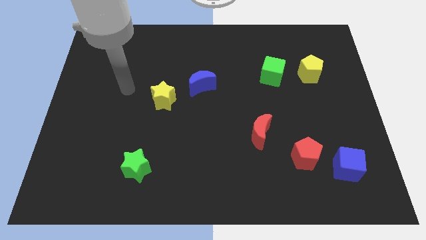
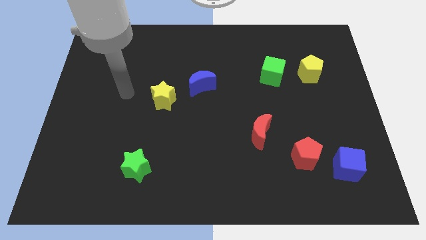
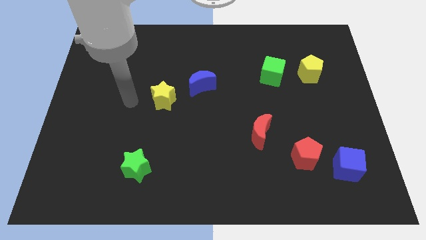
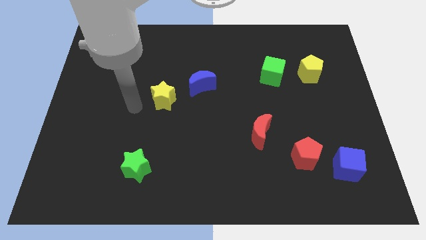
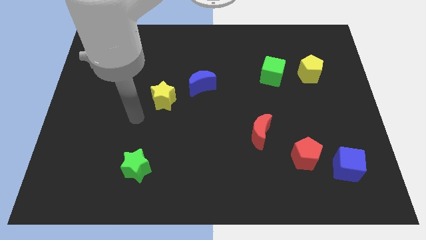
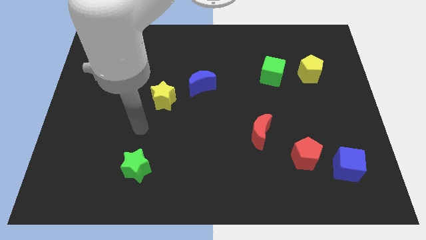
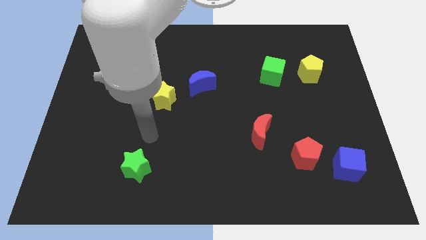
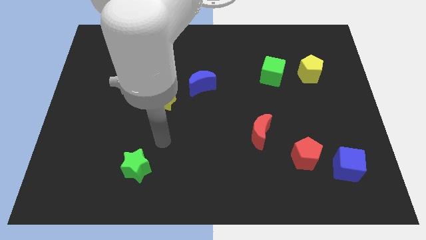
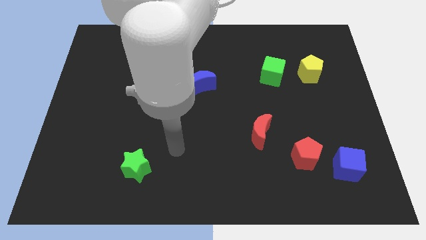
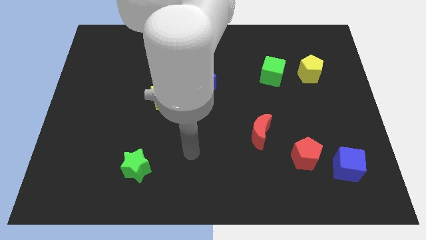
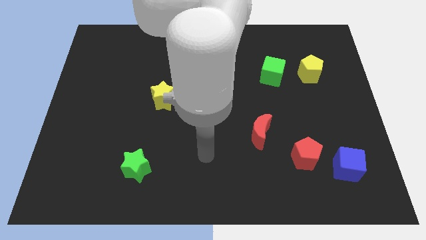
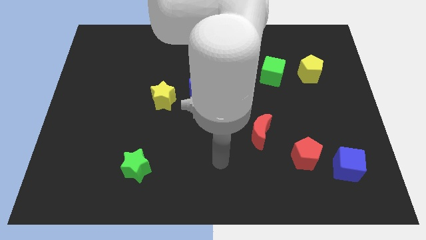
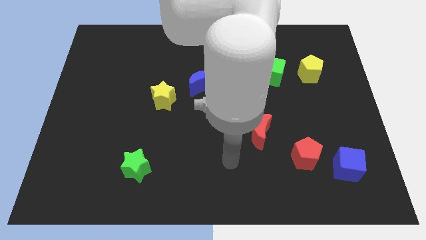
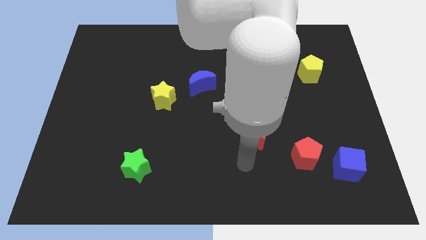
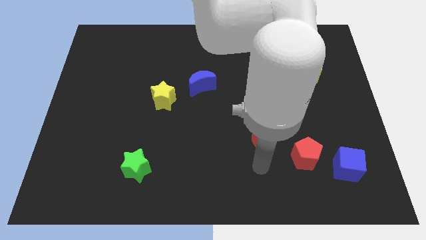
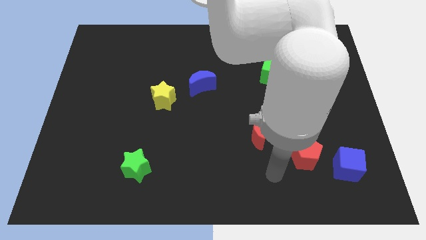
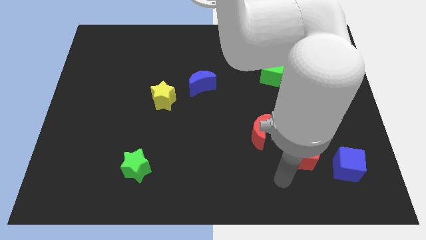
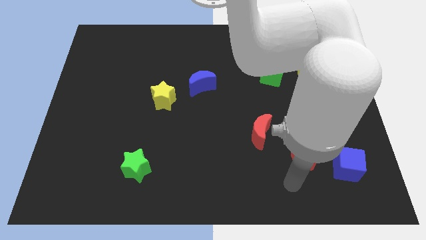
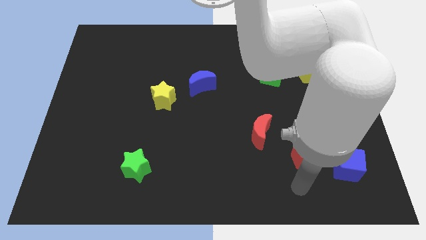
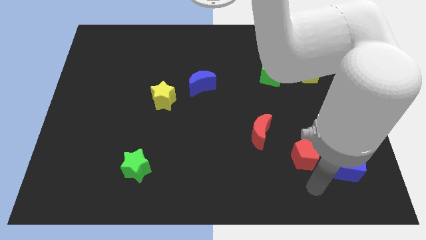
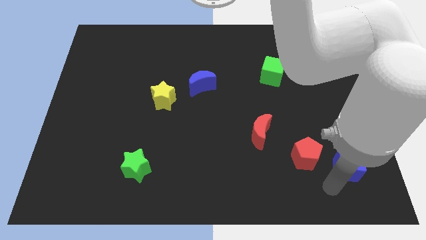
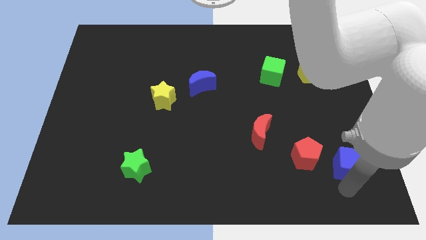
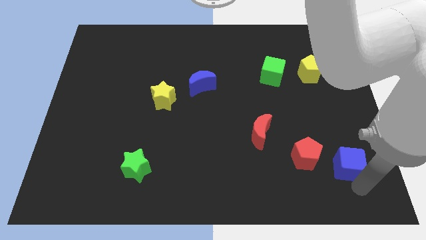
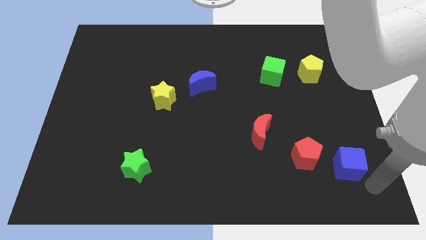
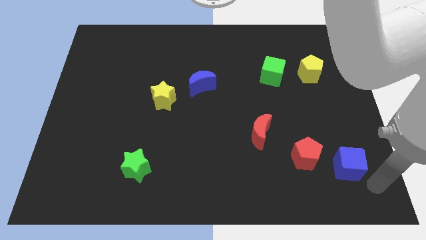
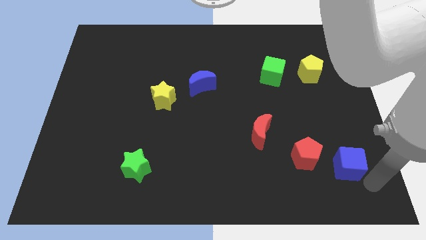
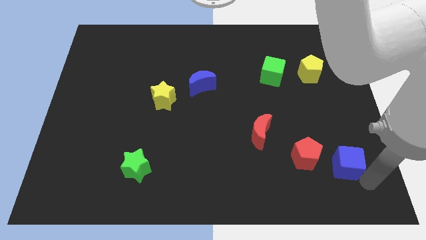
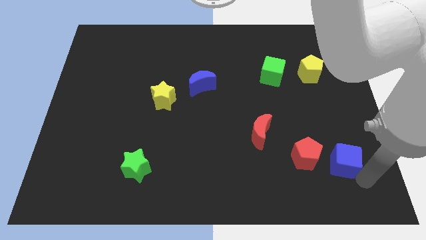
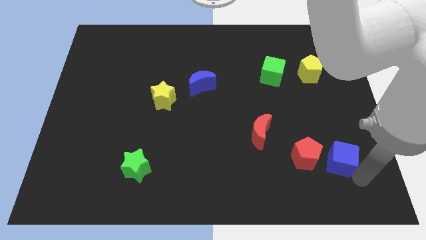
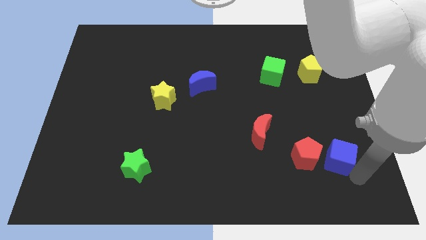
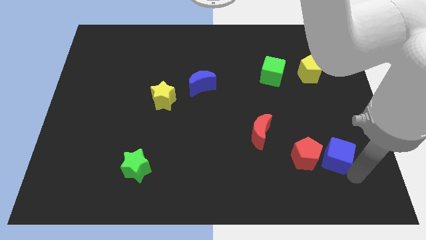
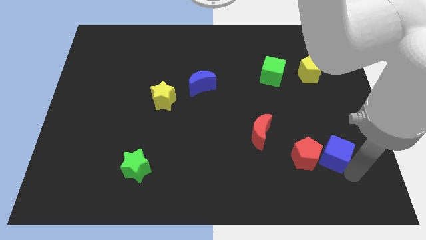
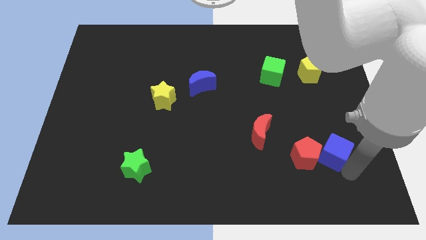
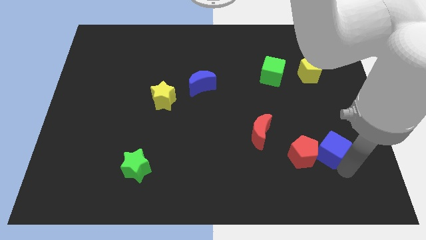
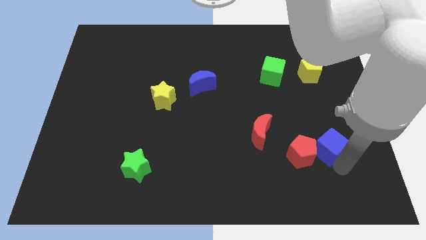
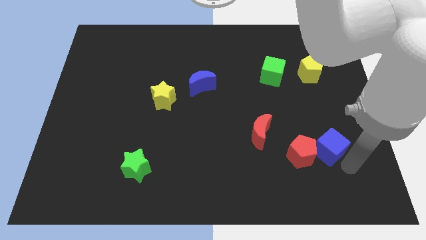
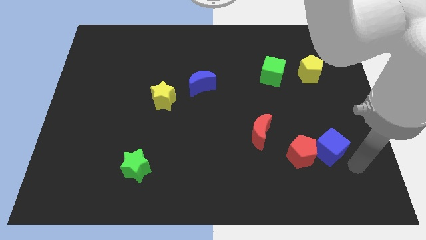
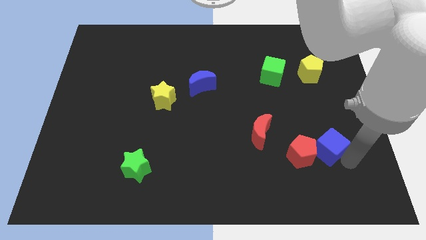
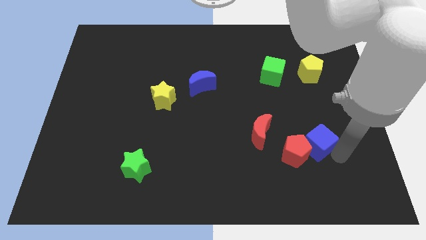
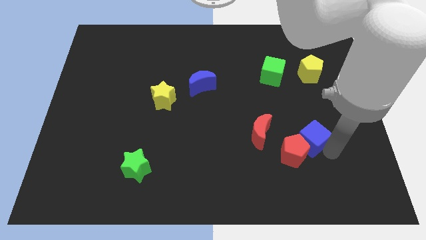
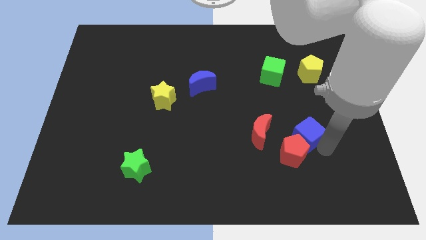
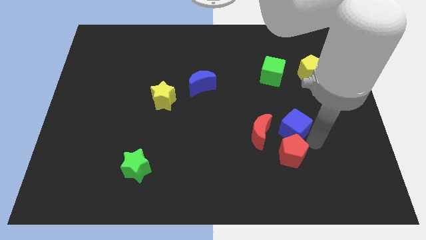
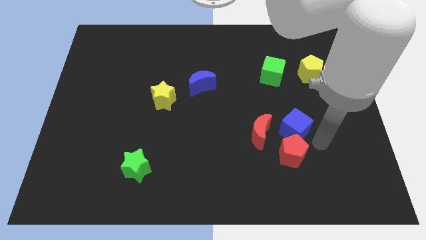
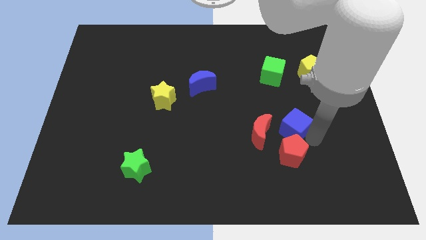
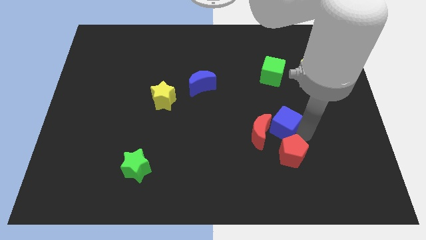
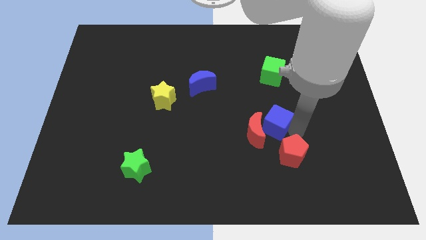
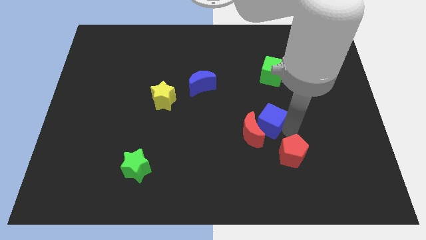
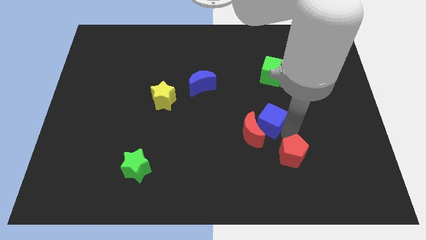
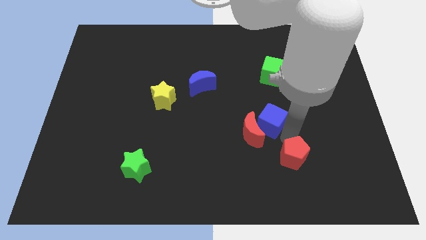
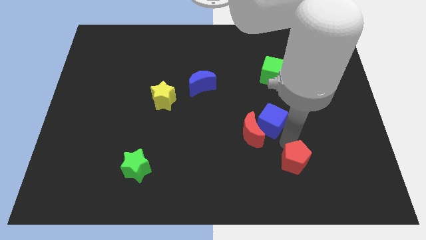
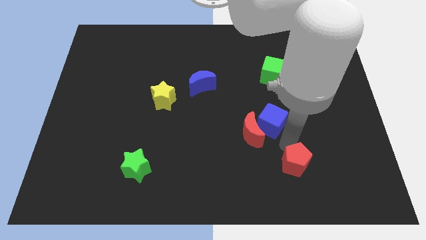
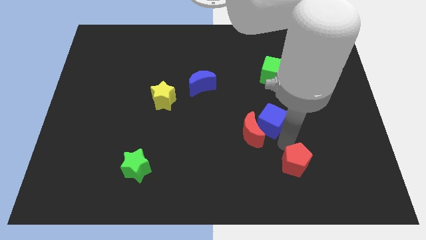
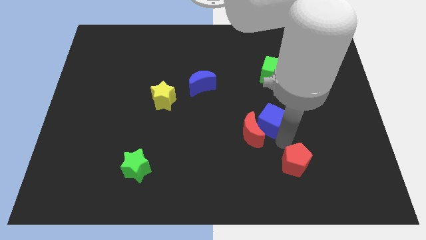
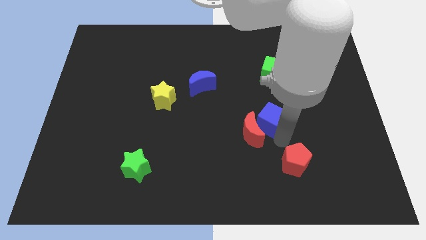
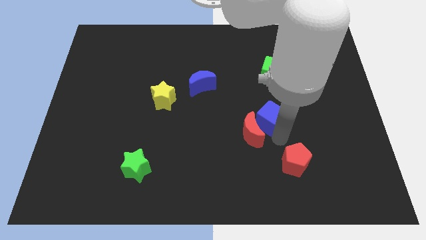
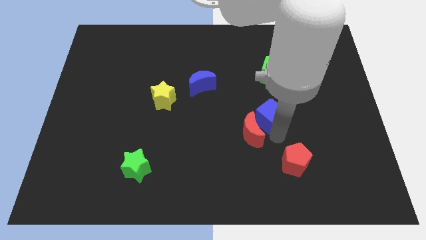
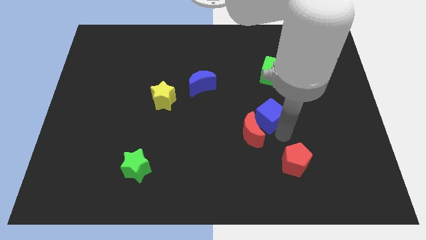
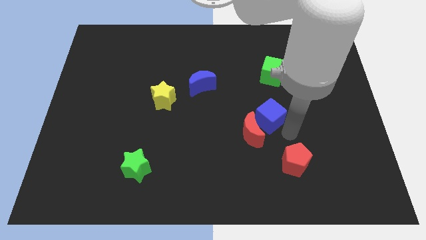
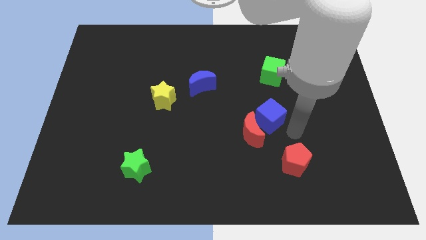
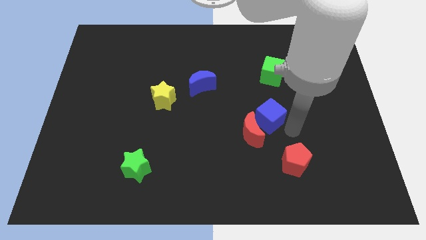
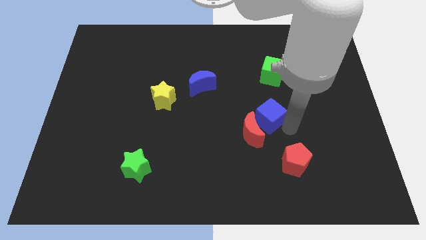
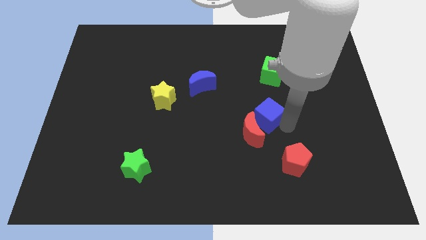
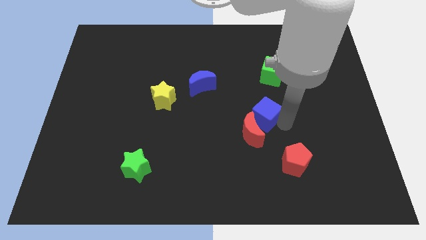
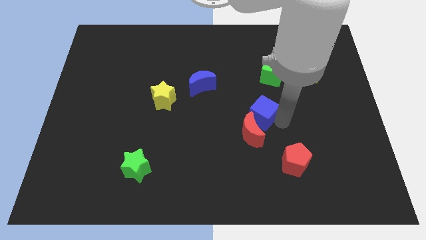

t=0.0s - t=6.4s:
put the blue cube to the middle of the board

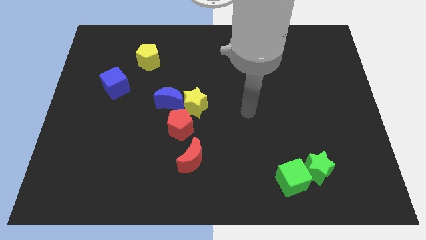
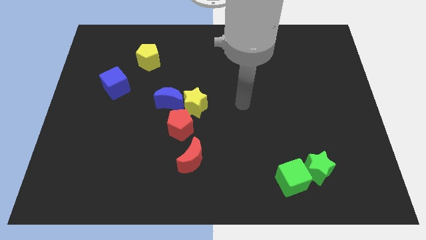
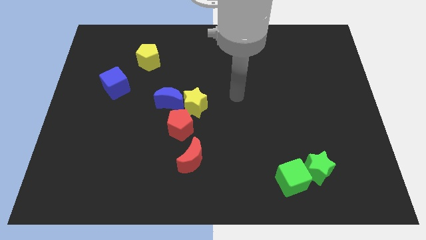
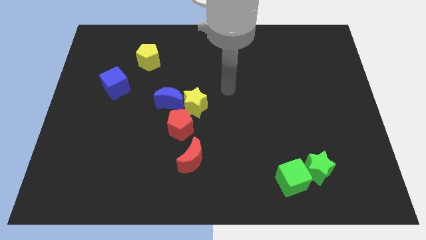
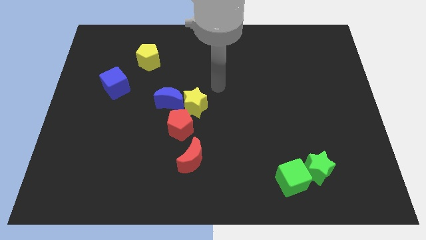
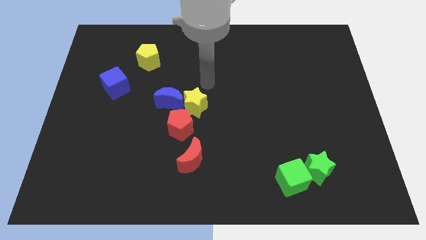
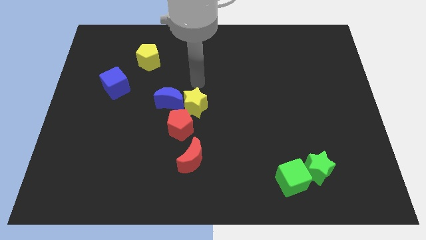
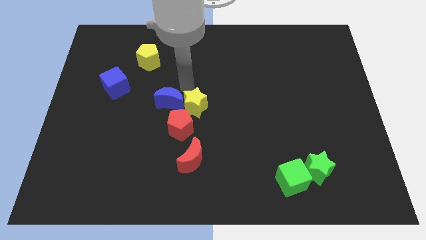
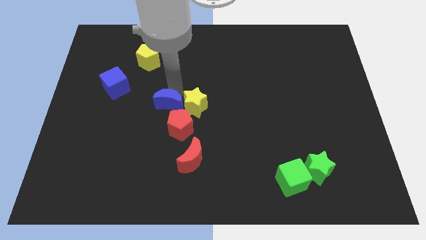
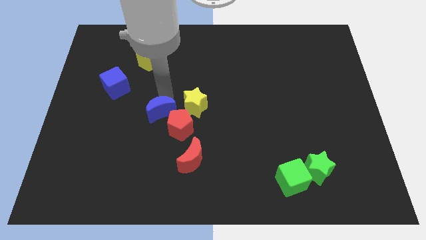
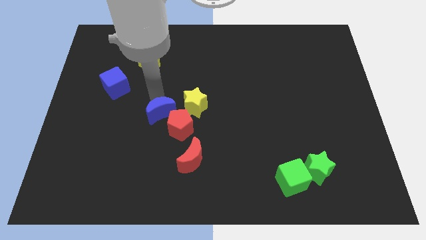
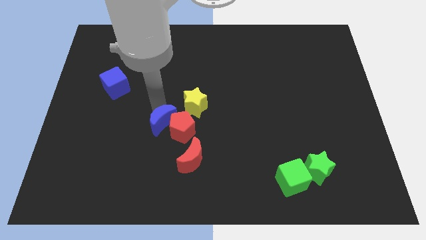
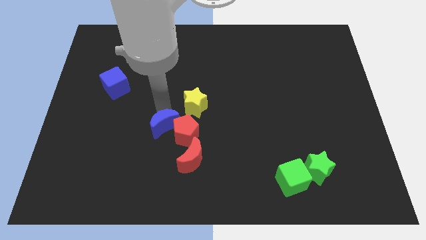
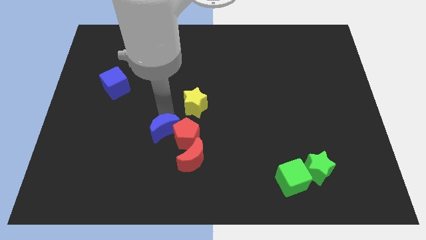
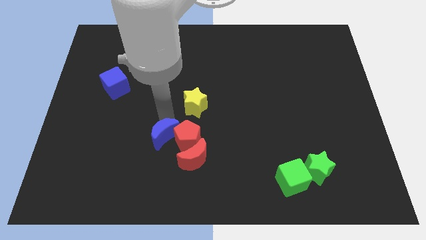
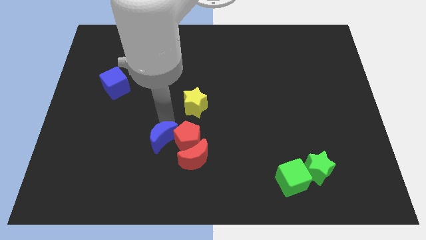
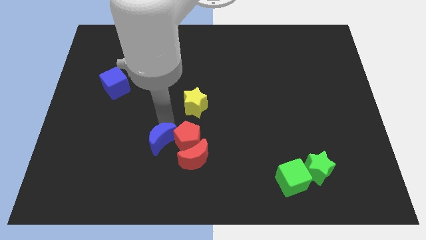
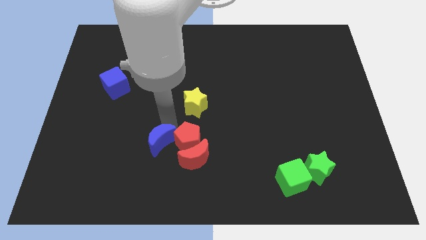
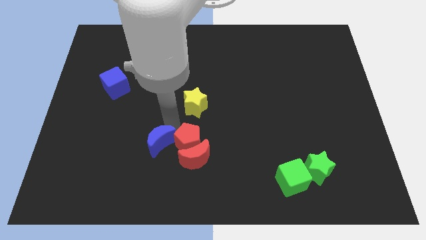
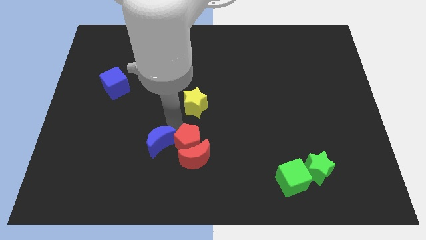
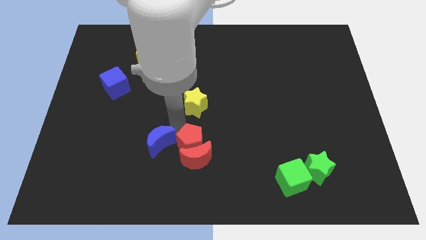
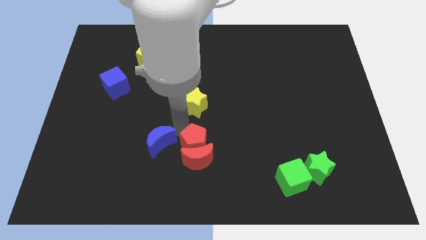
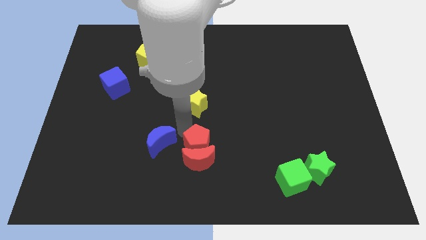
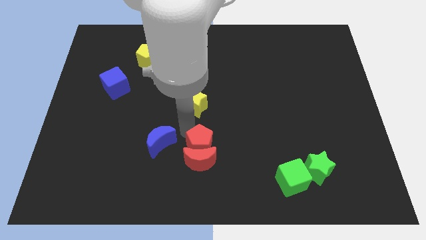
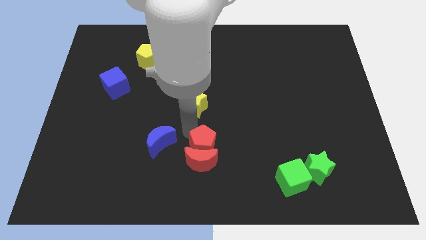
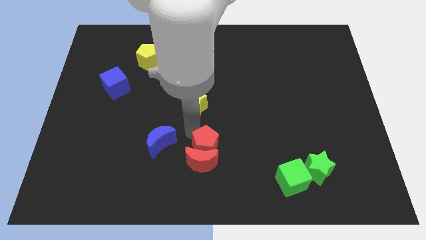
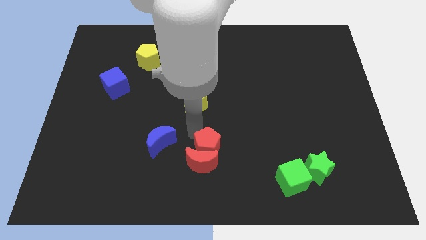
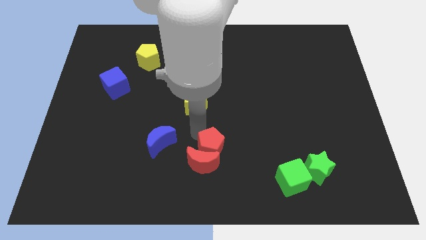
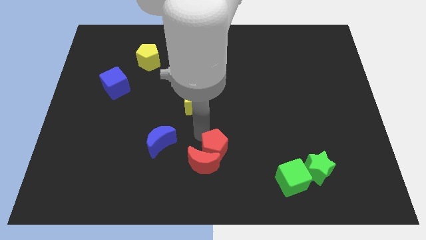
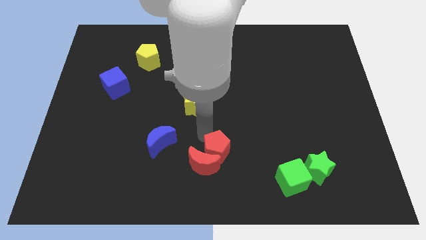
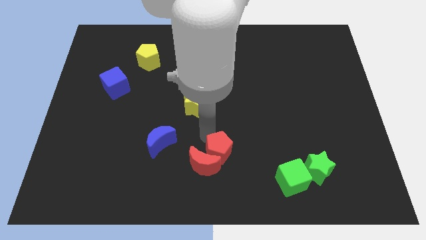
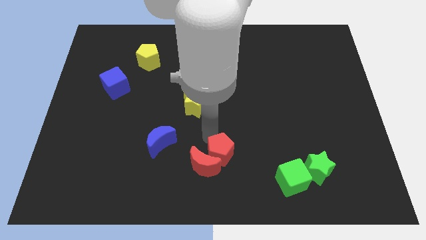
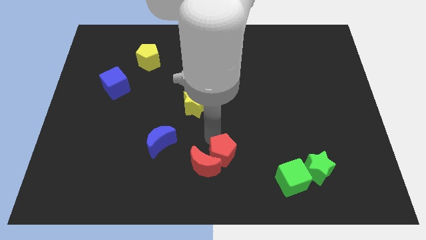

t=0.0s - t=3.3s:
slide the red pentagon to the bottom side
